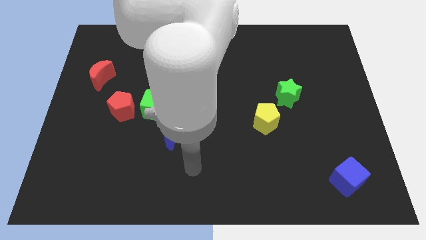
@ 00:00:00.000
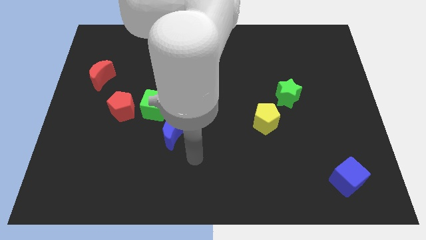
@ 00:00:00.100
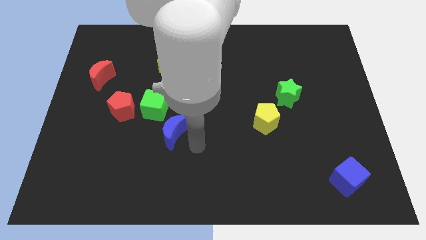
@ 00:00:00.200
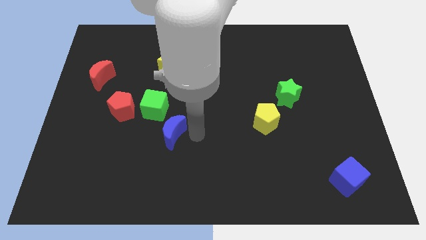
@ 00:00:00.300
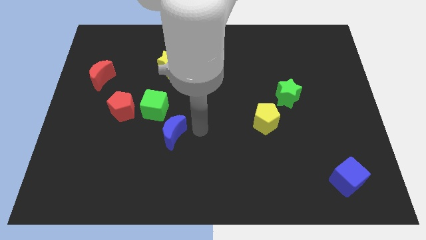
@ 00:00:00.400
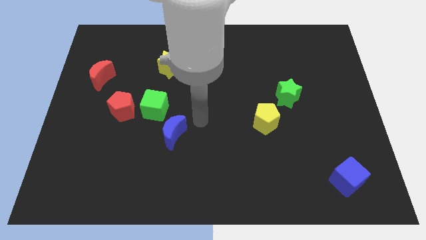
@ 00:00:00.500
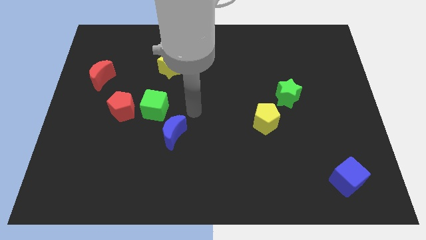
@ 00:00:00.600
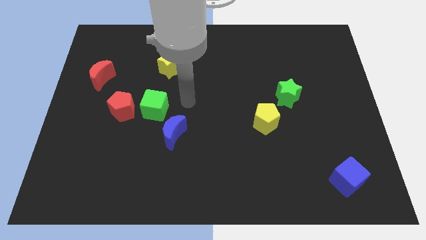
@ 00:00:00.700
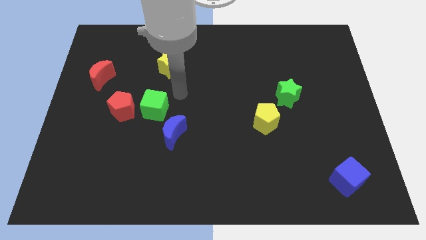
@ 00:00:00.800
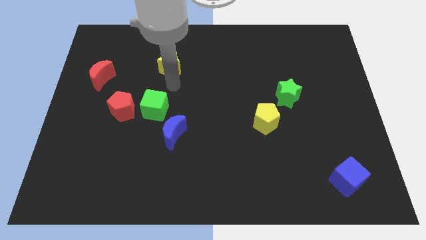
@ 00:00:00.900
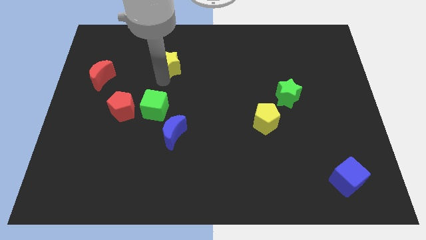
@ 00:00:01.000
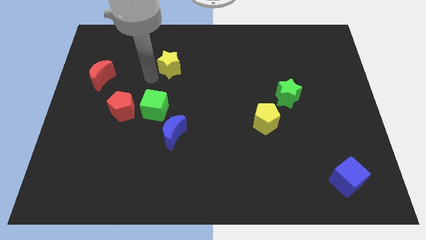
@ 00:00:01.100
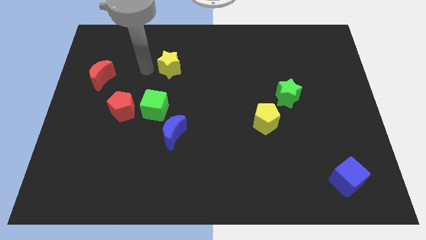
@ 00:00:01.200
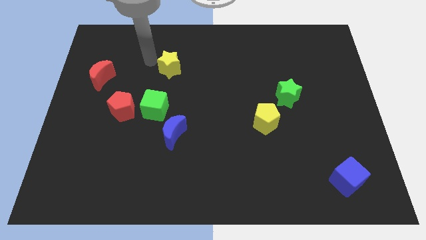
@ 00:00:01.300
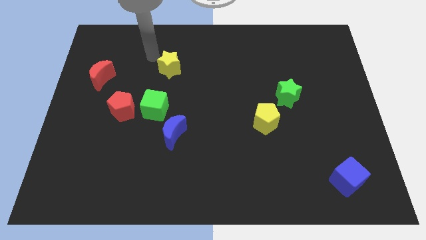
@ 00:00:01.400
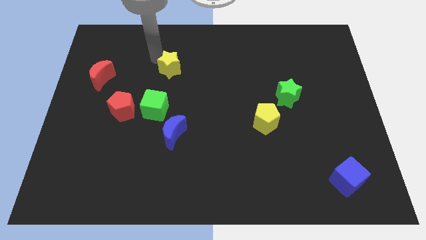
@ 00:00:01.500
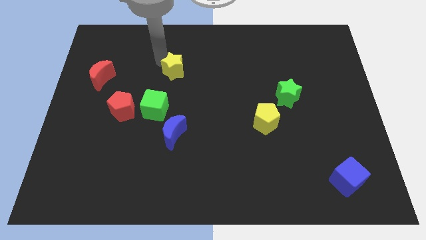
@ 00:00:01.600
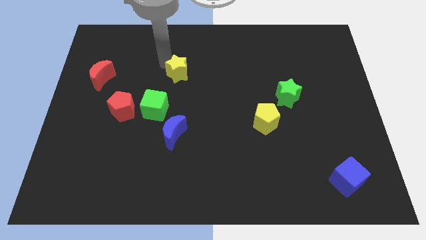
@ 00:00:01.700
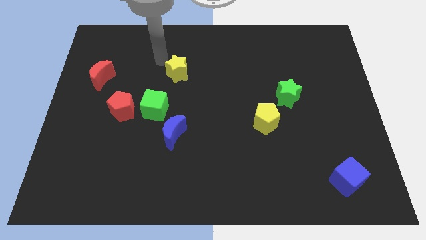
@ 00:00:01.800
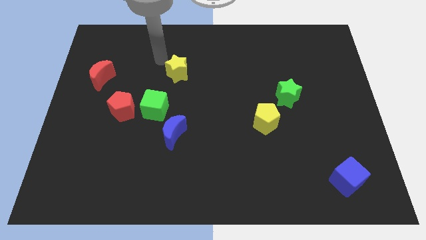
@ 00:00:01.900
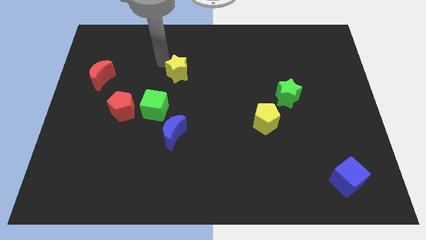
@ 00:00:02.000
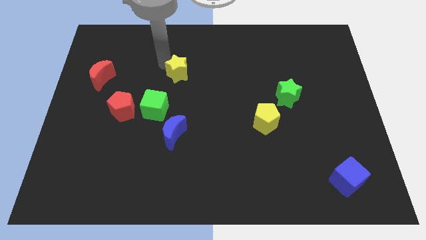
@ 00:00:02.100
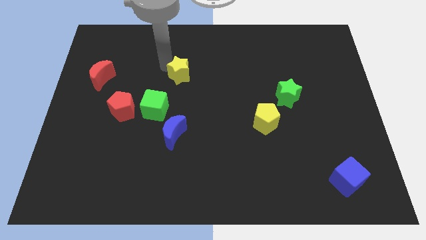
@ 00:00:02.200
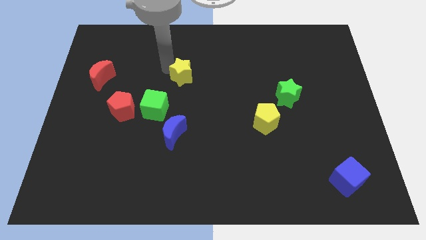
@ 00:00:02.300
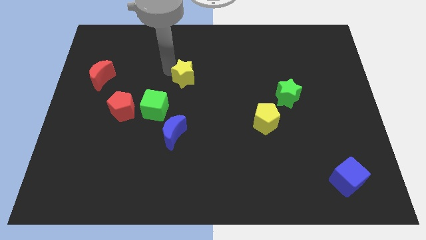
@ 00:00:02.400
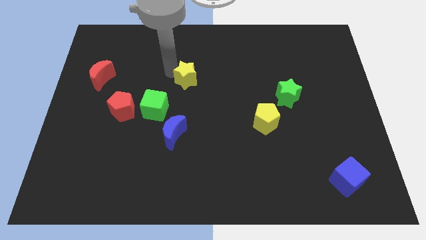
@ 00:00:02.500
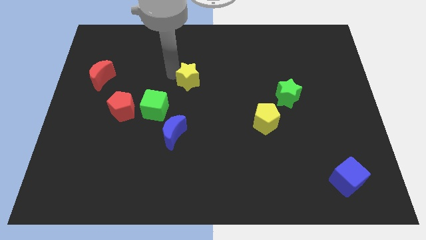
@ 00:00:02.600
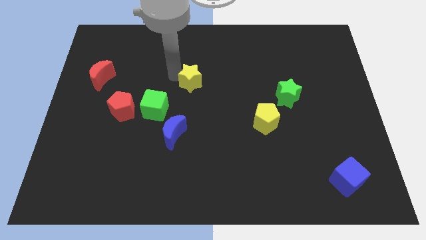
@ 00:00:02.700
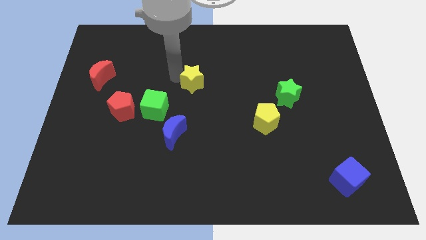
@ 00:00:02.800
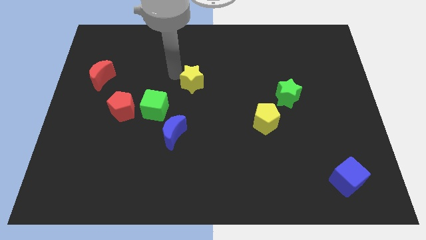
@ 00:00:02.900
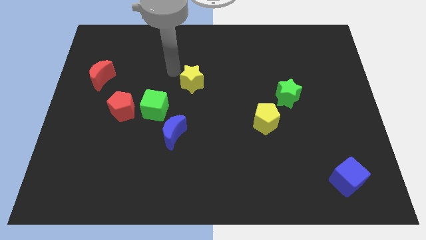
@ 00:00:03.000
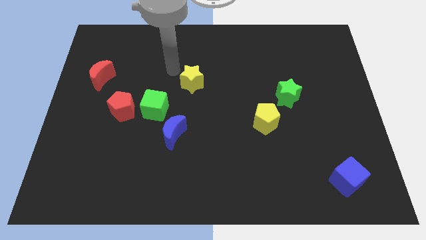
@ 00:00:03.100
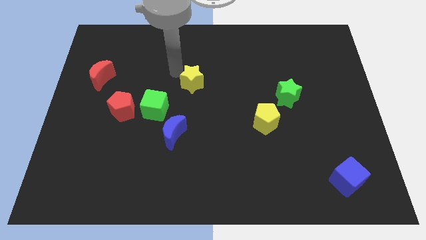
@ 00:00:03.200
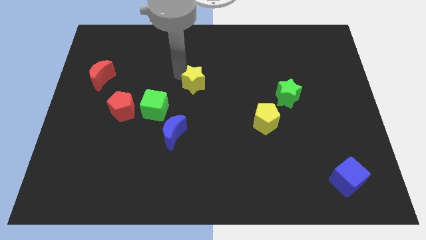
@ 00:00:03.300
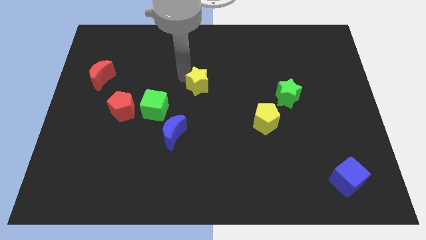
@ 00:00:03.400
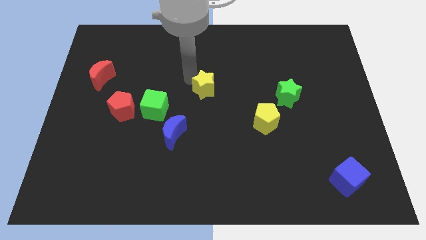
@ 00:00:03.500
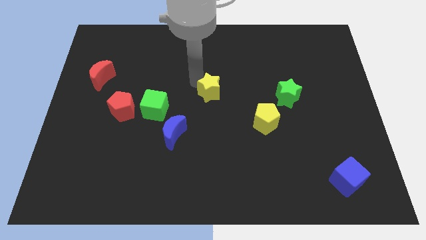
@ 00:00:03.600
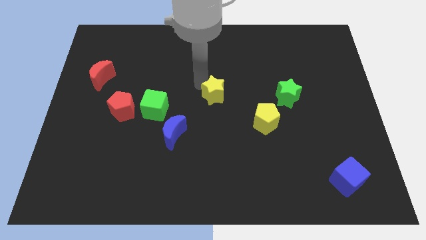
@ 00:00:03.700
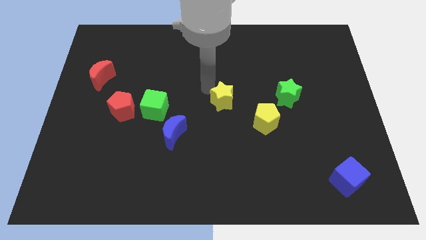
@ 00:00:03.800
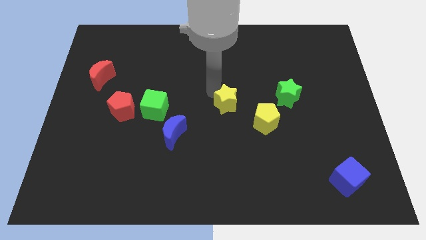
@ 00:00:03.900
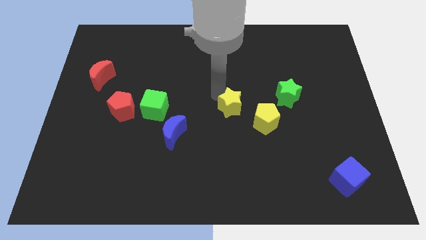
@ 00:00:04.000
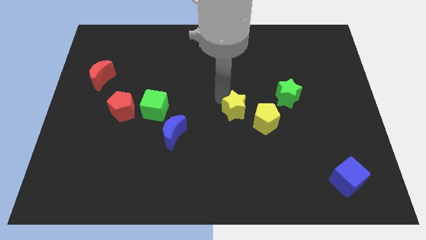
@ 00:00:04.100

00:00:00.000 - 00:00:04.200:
slide the yellow star down and to the right

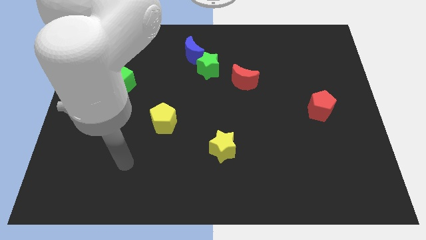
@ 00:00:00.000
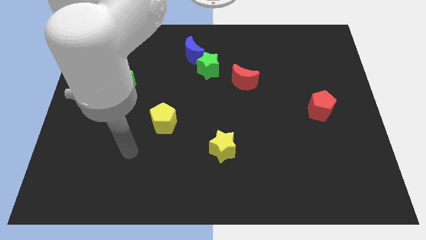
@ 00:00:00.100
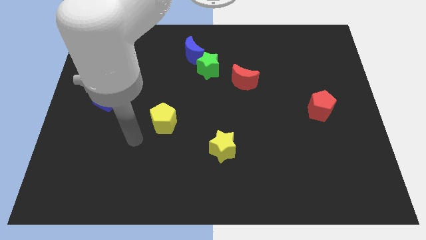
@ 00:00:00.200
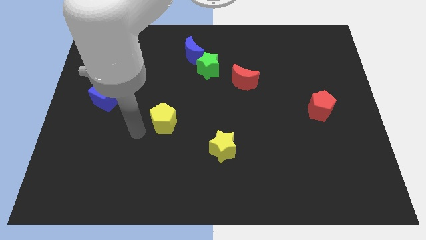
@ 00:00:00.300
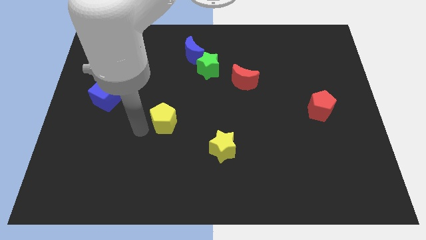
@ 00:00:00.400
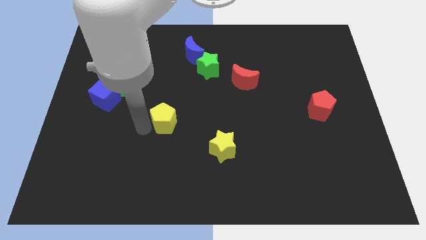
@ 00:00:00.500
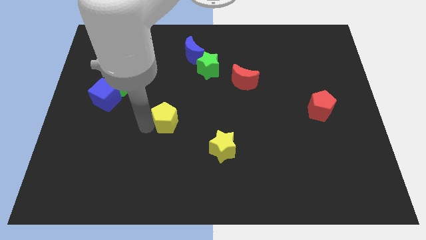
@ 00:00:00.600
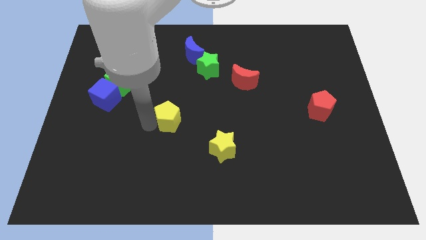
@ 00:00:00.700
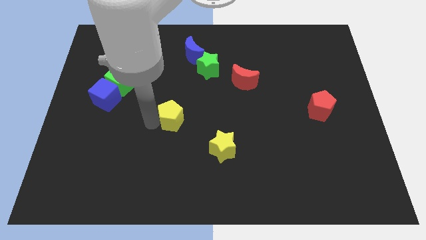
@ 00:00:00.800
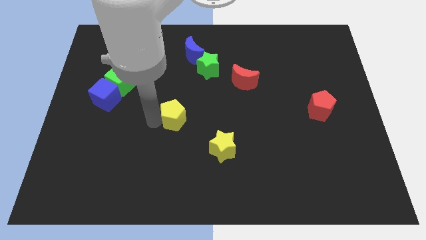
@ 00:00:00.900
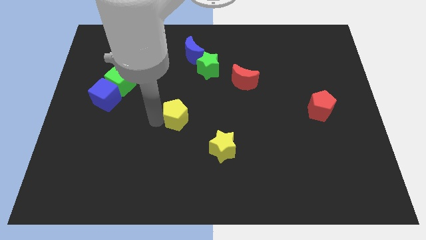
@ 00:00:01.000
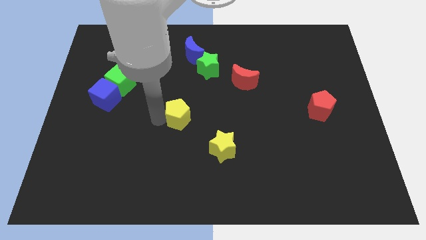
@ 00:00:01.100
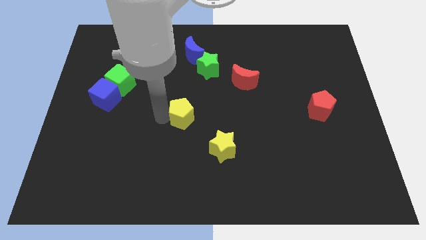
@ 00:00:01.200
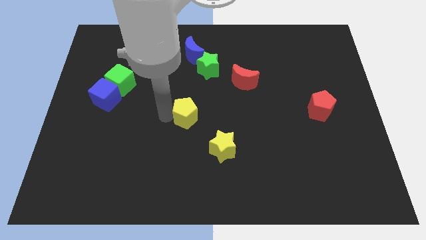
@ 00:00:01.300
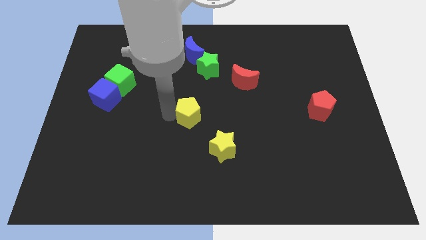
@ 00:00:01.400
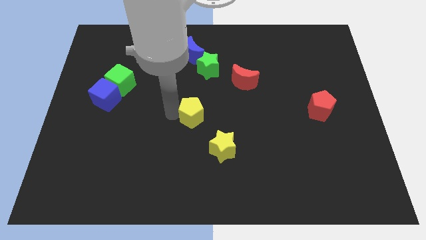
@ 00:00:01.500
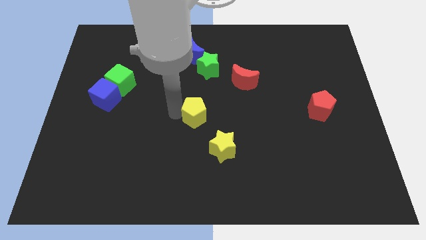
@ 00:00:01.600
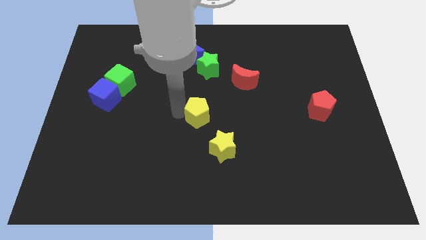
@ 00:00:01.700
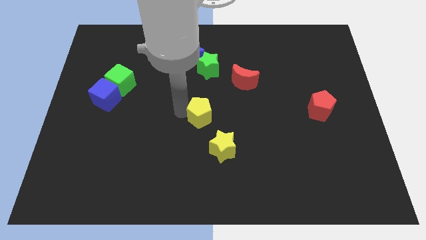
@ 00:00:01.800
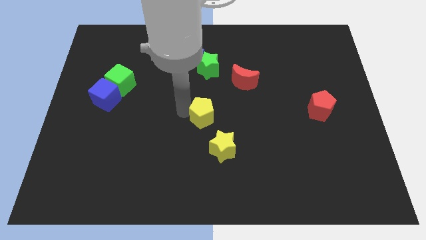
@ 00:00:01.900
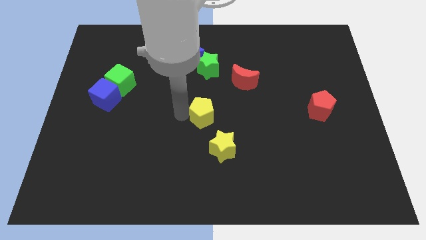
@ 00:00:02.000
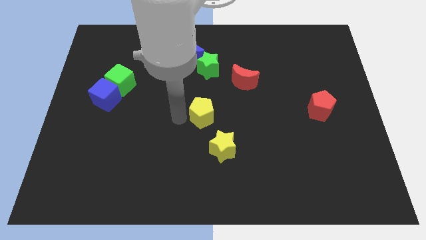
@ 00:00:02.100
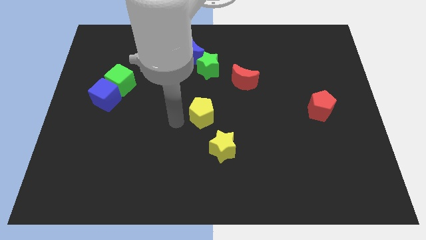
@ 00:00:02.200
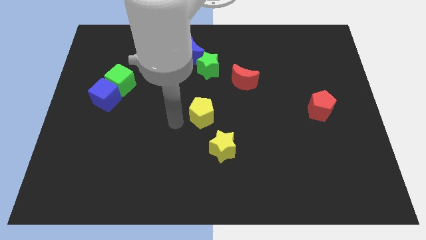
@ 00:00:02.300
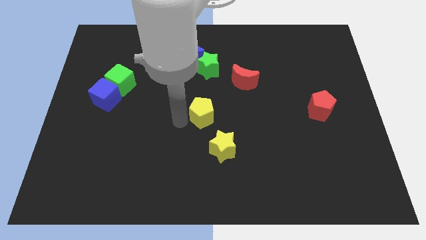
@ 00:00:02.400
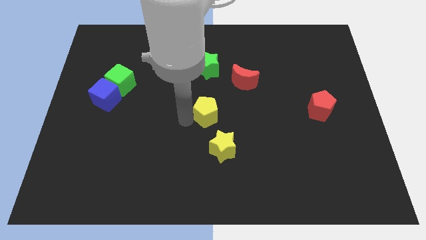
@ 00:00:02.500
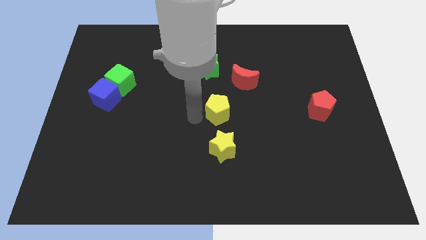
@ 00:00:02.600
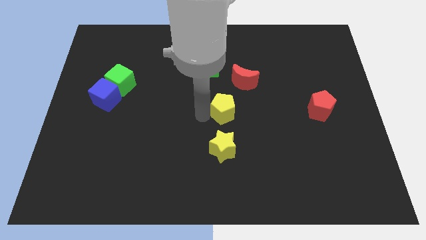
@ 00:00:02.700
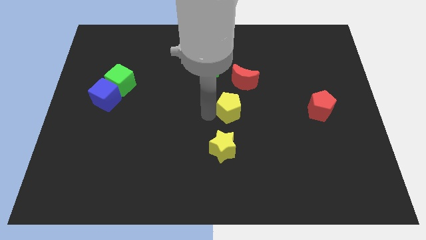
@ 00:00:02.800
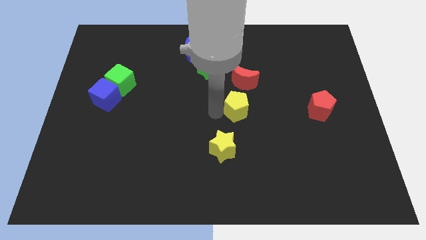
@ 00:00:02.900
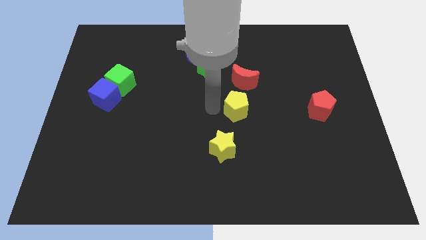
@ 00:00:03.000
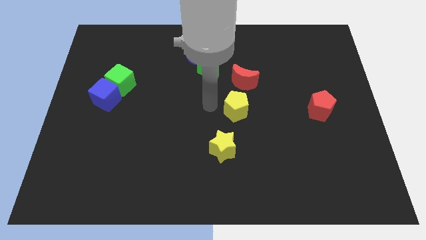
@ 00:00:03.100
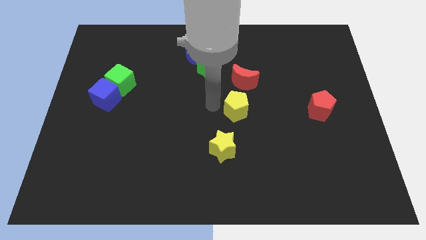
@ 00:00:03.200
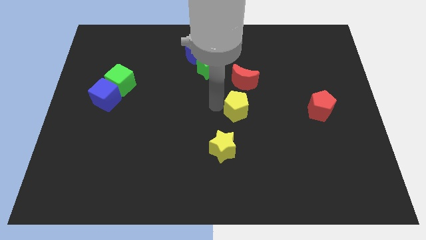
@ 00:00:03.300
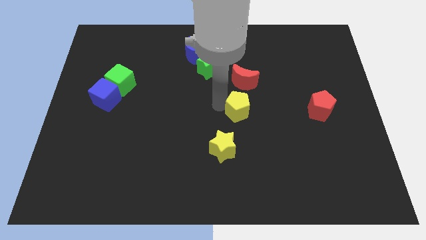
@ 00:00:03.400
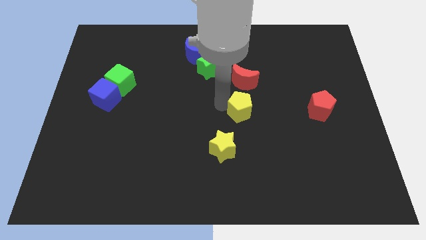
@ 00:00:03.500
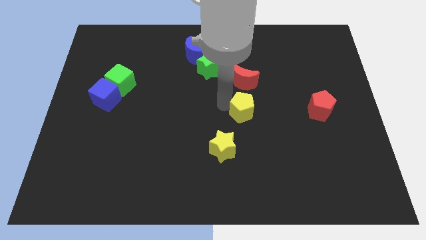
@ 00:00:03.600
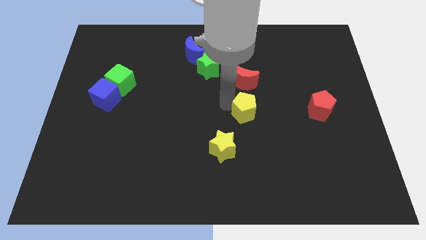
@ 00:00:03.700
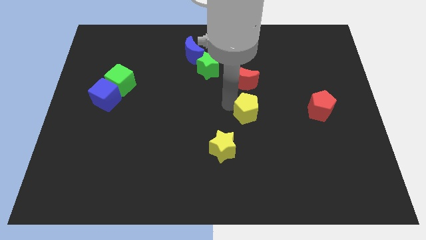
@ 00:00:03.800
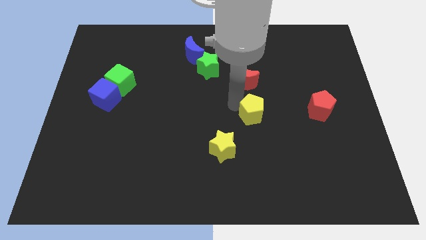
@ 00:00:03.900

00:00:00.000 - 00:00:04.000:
push the yellow pentagon right
